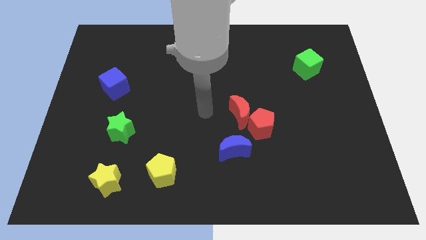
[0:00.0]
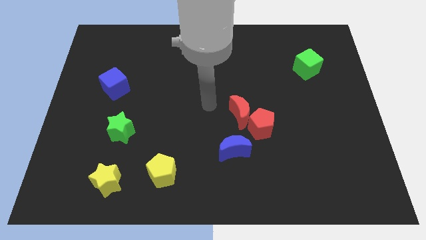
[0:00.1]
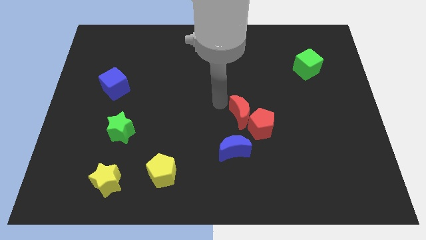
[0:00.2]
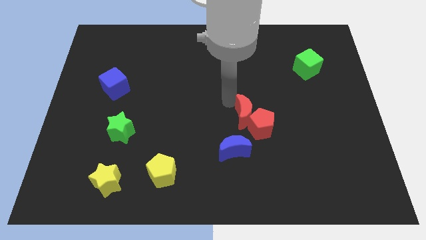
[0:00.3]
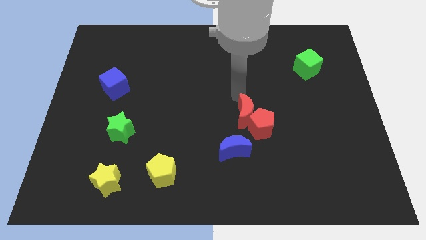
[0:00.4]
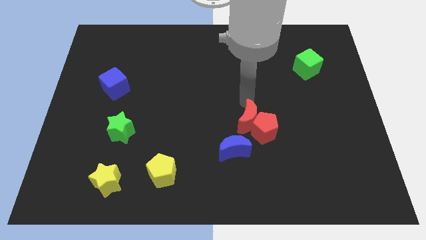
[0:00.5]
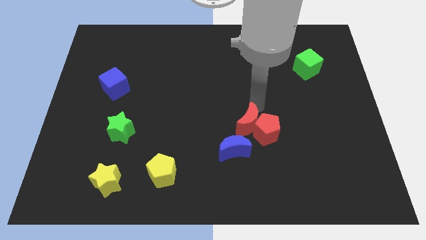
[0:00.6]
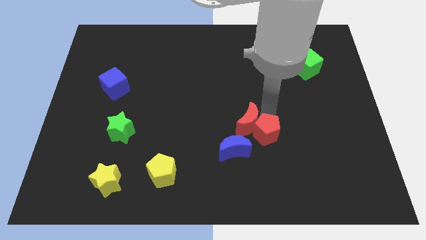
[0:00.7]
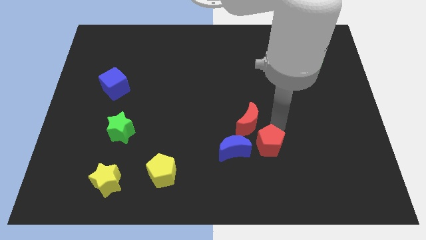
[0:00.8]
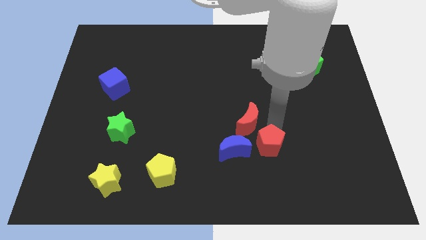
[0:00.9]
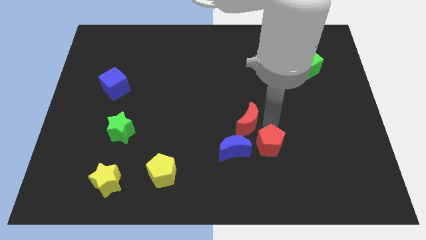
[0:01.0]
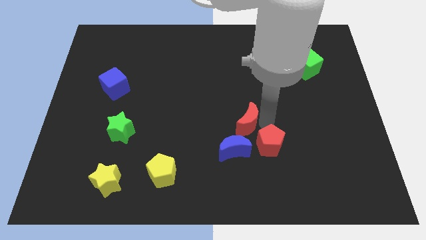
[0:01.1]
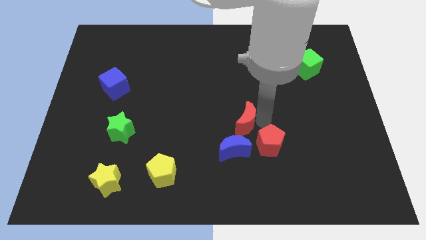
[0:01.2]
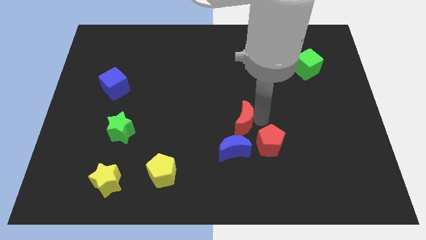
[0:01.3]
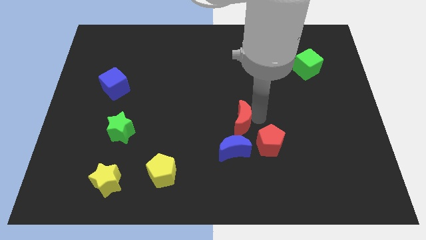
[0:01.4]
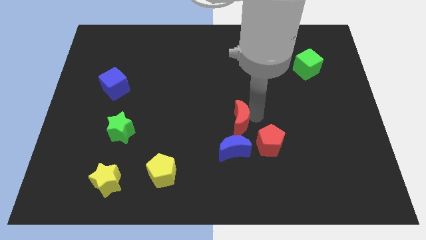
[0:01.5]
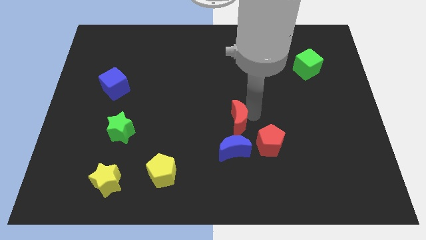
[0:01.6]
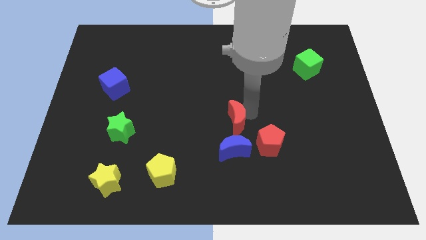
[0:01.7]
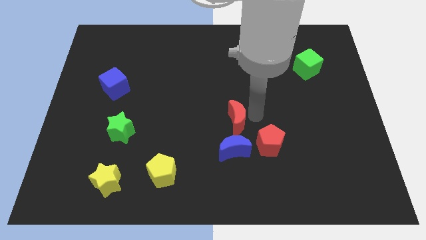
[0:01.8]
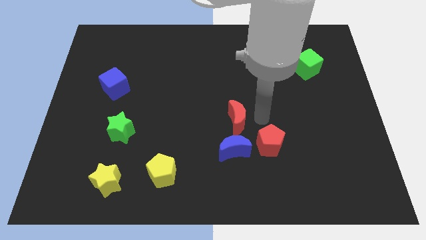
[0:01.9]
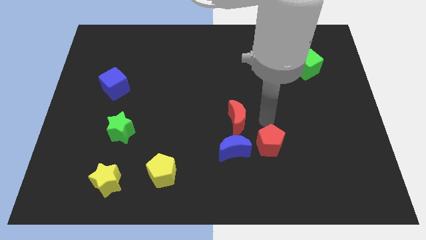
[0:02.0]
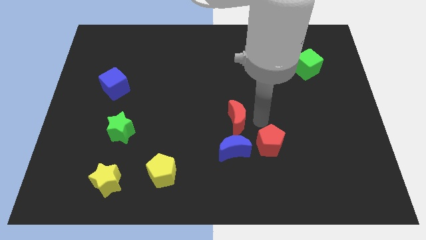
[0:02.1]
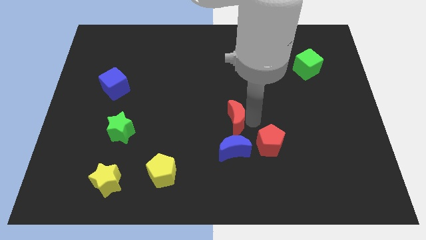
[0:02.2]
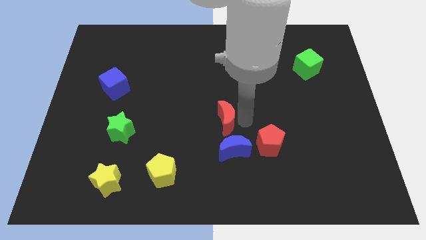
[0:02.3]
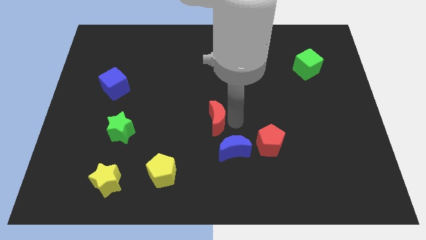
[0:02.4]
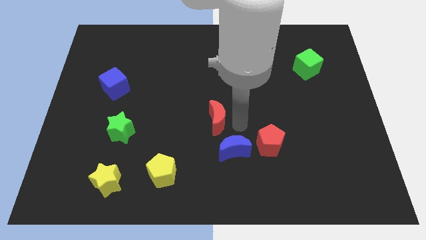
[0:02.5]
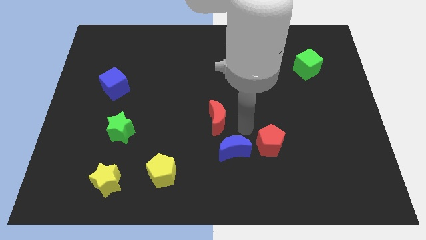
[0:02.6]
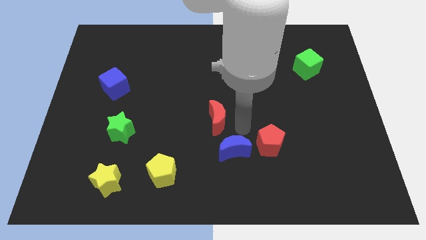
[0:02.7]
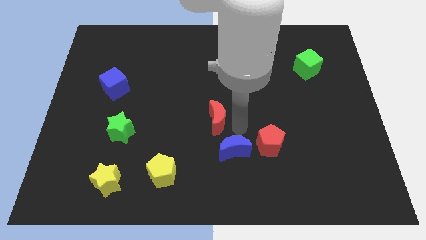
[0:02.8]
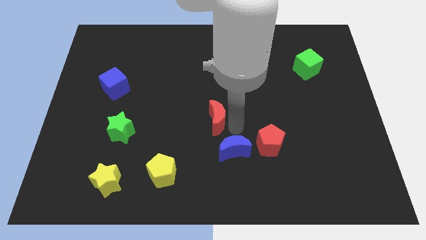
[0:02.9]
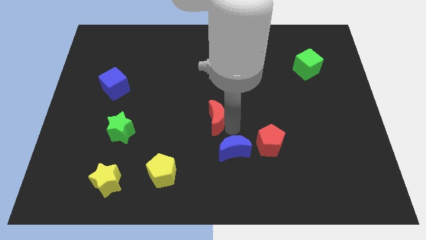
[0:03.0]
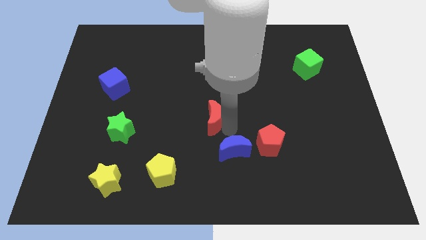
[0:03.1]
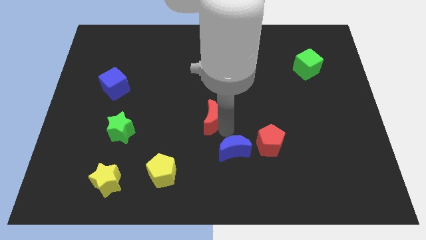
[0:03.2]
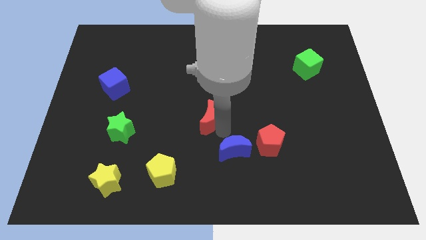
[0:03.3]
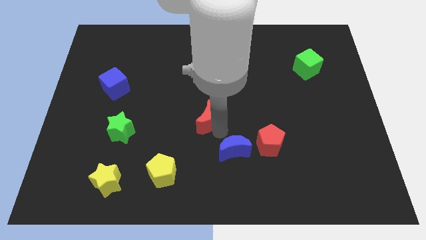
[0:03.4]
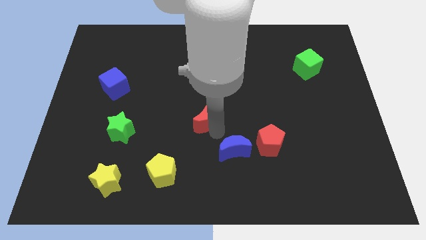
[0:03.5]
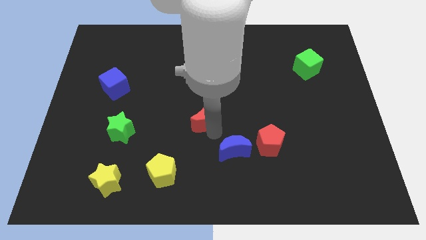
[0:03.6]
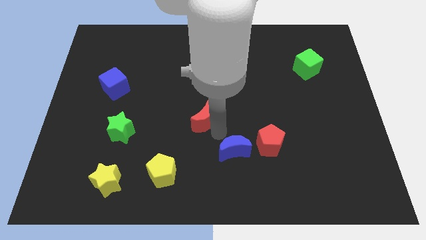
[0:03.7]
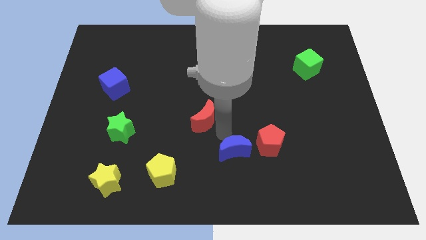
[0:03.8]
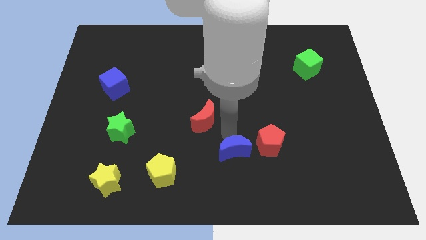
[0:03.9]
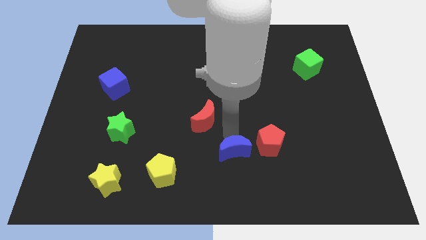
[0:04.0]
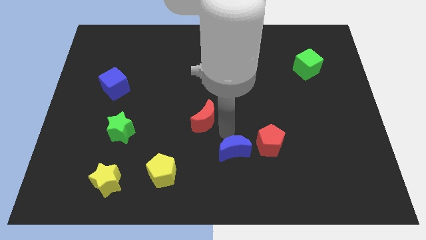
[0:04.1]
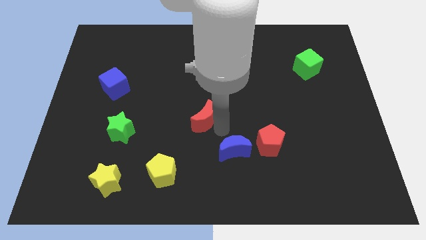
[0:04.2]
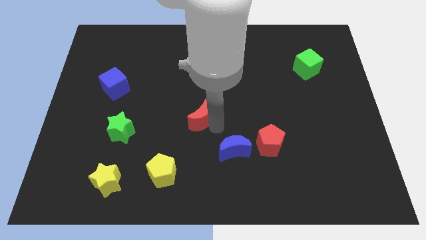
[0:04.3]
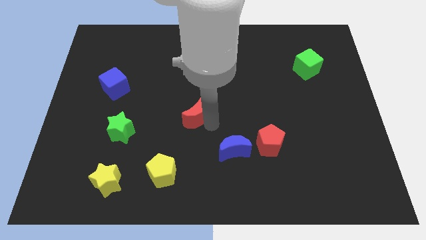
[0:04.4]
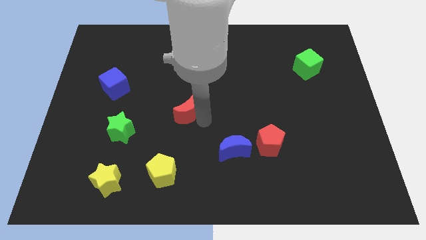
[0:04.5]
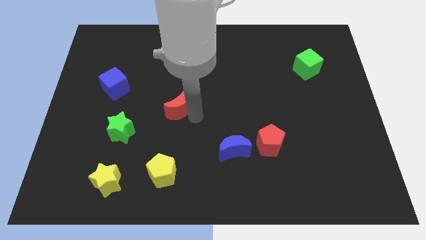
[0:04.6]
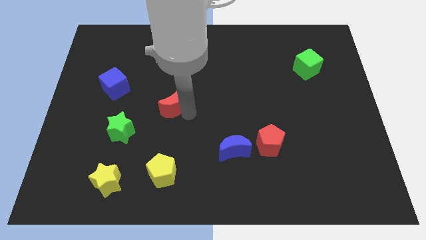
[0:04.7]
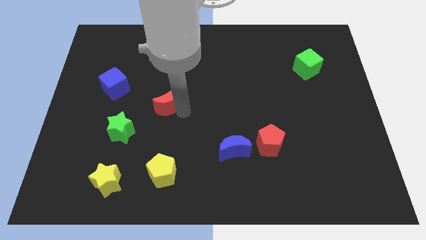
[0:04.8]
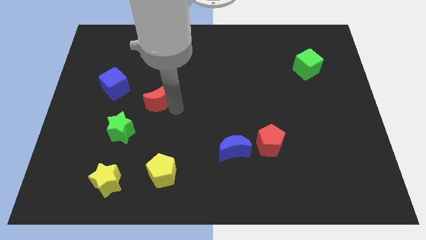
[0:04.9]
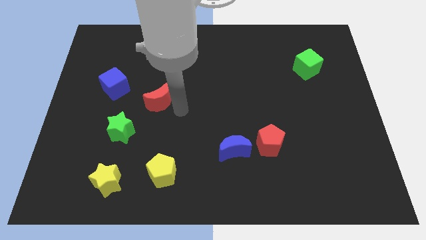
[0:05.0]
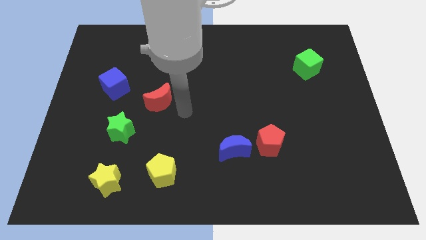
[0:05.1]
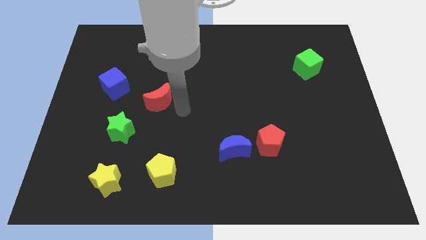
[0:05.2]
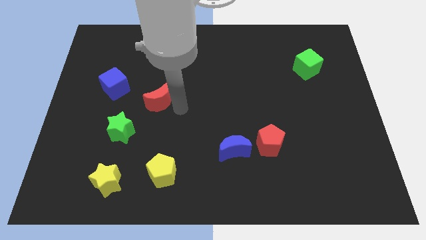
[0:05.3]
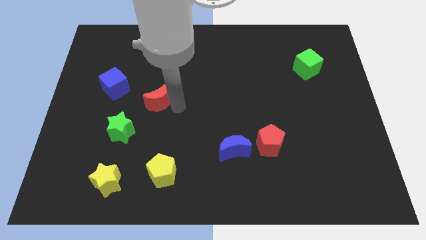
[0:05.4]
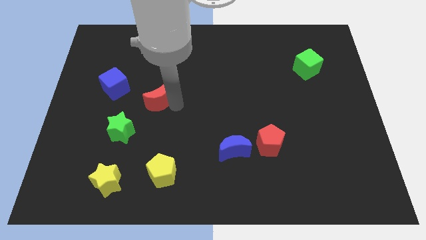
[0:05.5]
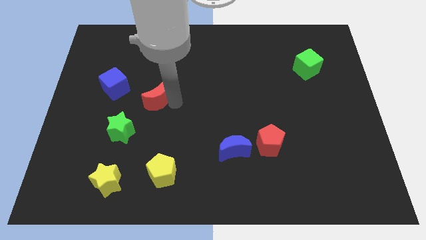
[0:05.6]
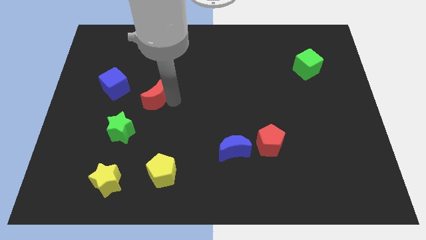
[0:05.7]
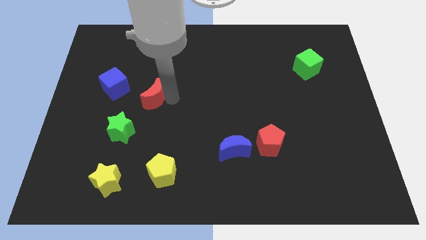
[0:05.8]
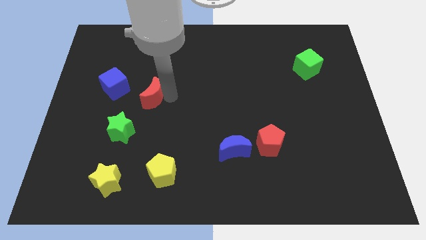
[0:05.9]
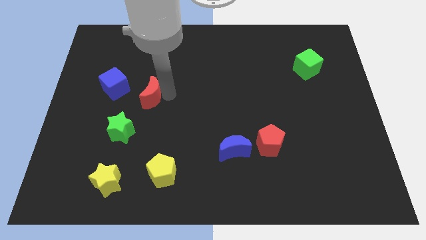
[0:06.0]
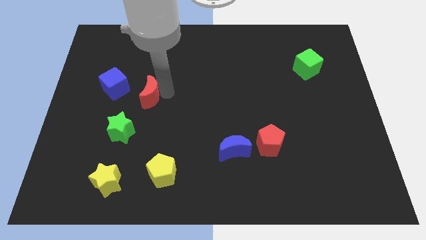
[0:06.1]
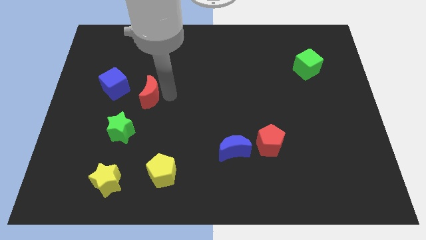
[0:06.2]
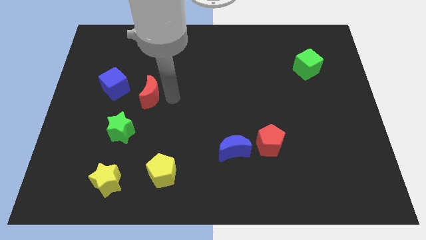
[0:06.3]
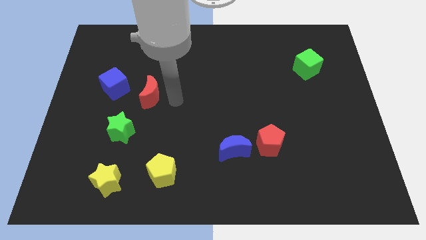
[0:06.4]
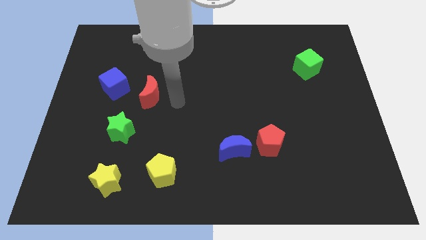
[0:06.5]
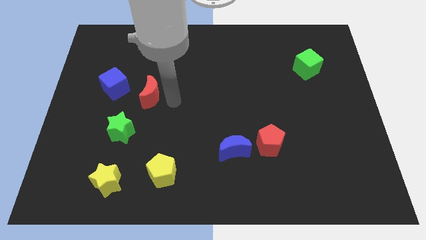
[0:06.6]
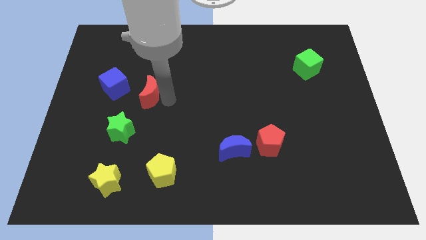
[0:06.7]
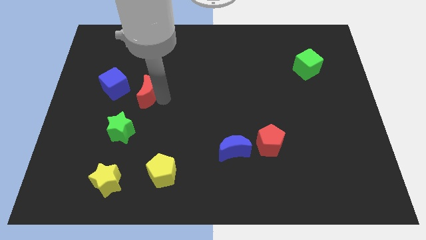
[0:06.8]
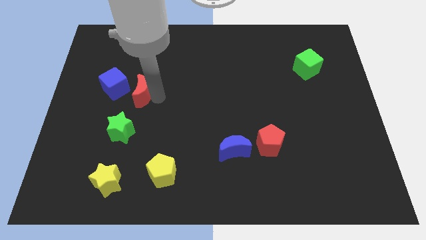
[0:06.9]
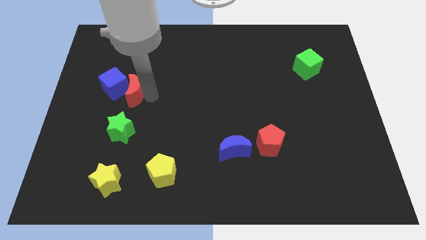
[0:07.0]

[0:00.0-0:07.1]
slide the red moon towards the blue cube
